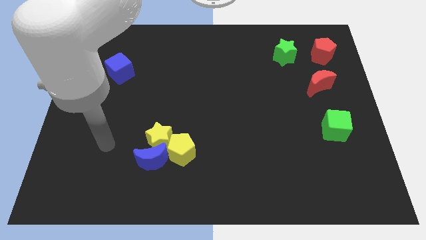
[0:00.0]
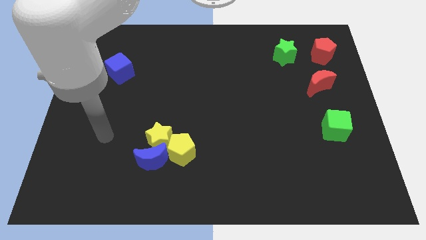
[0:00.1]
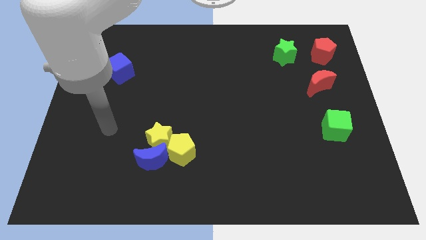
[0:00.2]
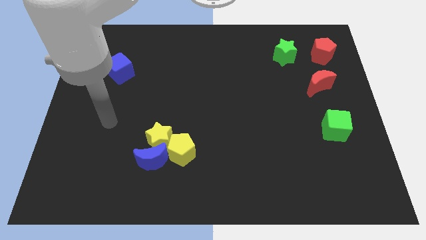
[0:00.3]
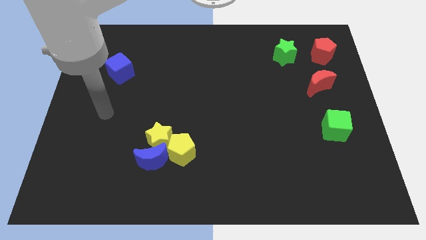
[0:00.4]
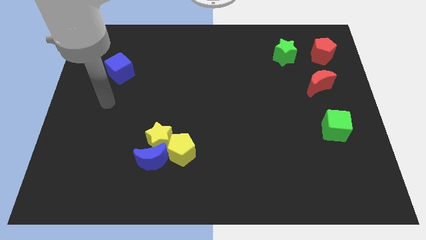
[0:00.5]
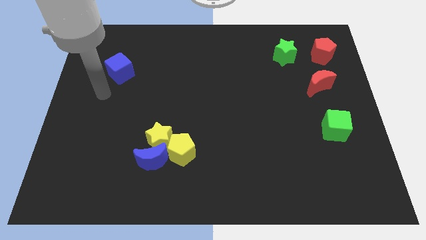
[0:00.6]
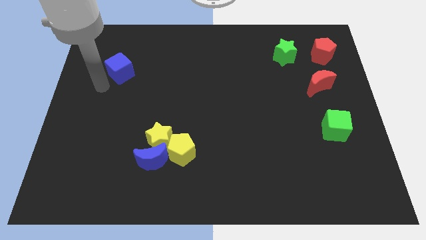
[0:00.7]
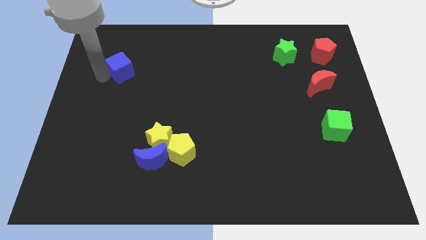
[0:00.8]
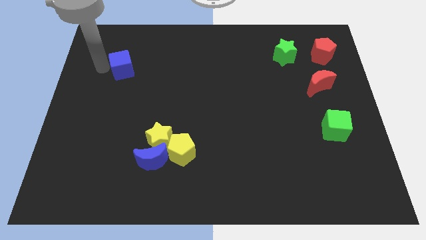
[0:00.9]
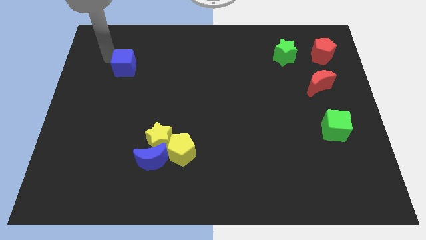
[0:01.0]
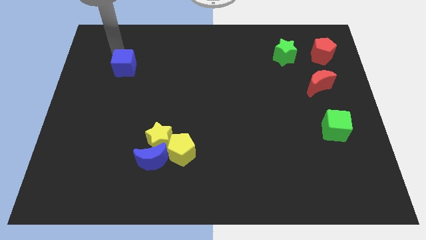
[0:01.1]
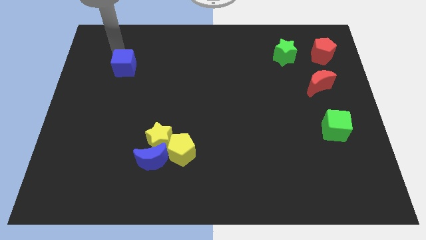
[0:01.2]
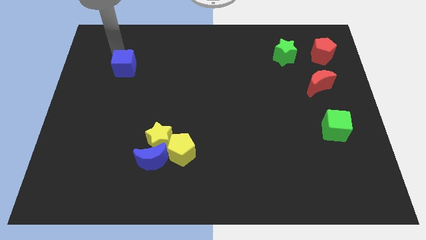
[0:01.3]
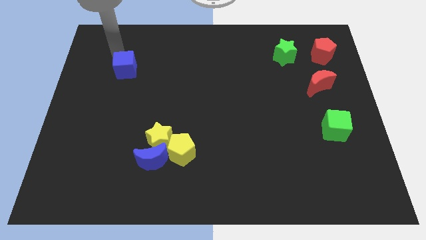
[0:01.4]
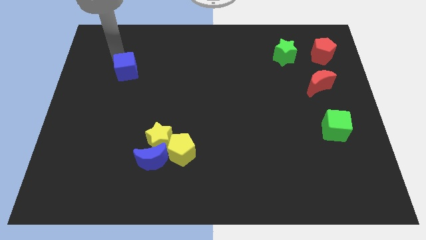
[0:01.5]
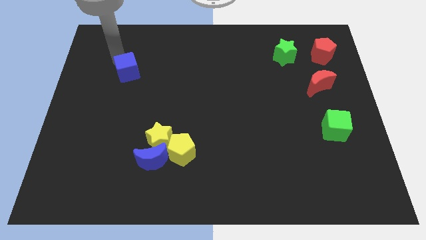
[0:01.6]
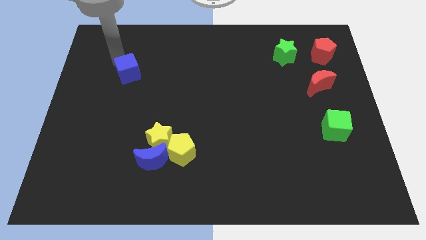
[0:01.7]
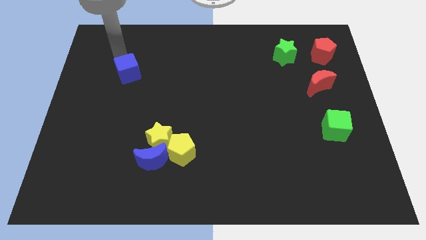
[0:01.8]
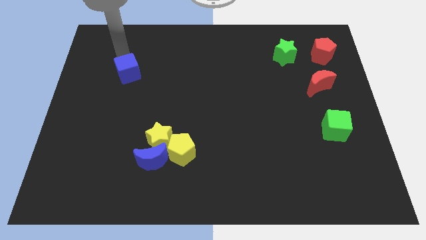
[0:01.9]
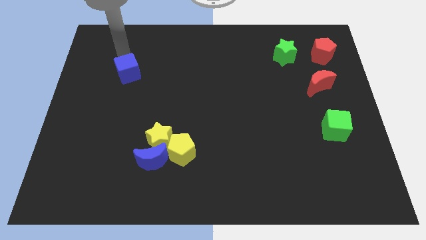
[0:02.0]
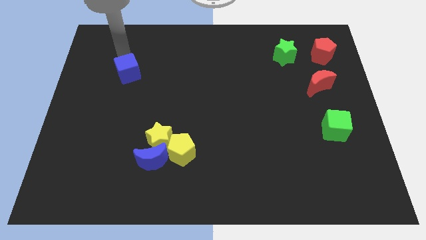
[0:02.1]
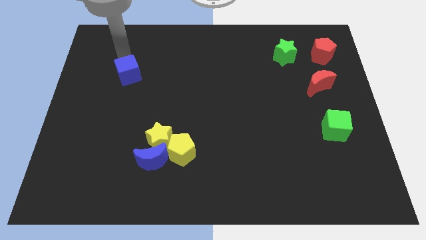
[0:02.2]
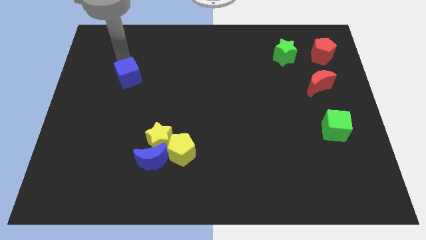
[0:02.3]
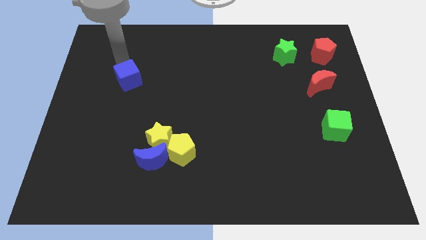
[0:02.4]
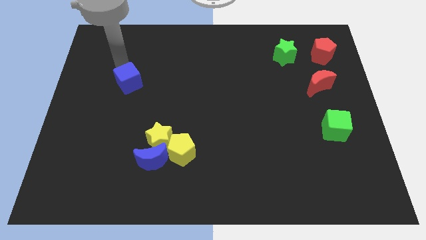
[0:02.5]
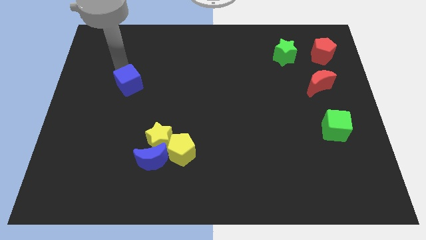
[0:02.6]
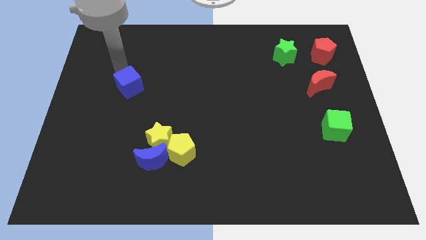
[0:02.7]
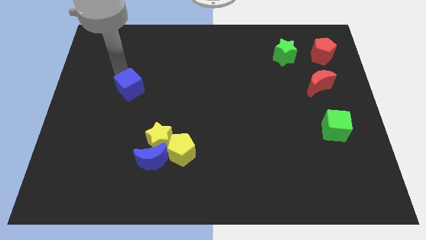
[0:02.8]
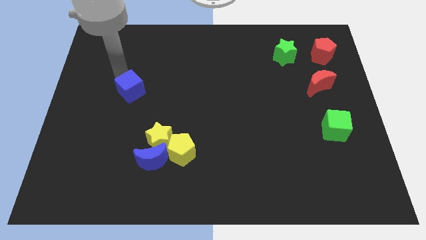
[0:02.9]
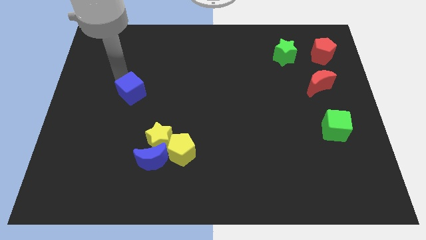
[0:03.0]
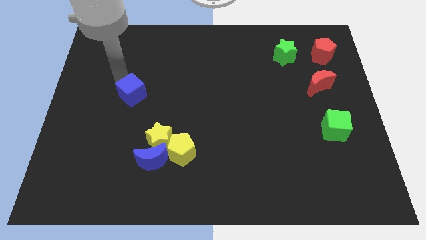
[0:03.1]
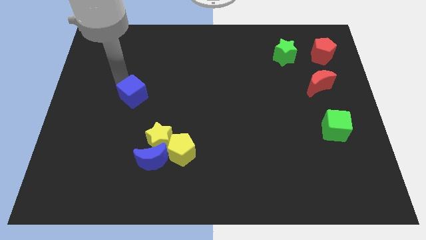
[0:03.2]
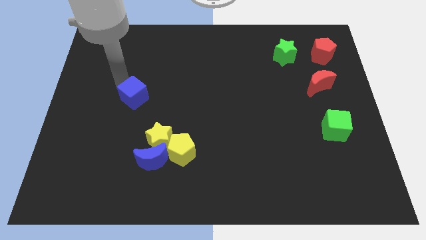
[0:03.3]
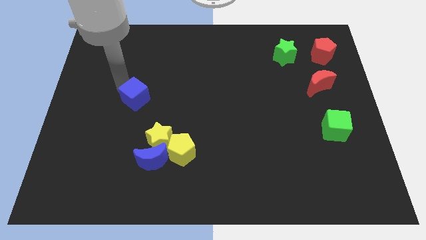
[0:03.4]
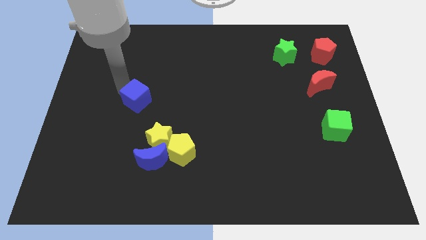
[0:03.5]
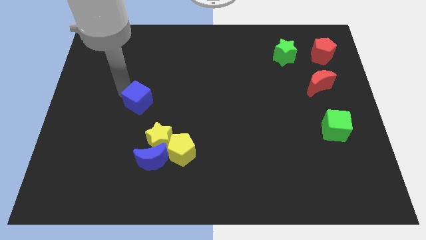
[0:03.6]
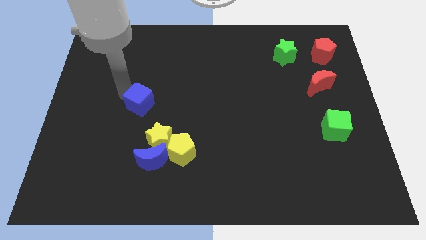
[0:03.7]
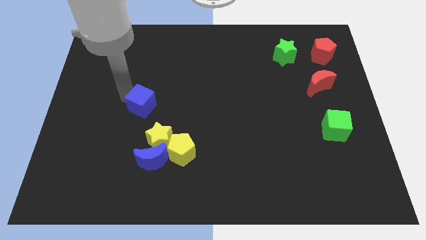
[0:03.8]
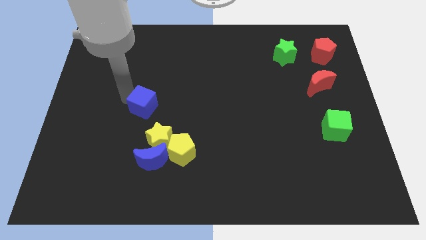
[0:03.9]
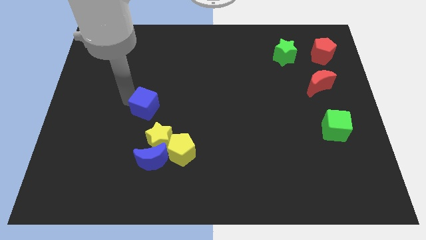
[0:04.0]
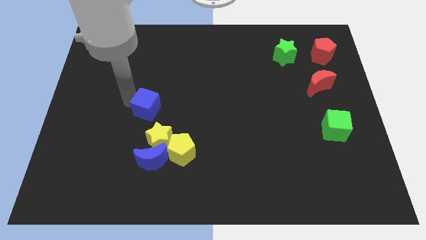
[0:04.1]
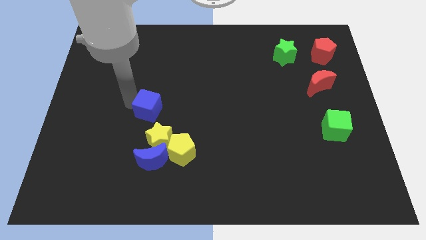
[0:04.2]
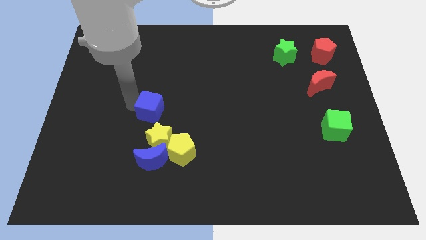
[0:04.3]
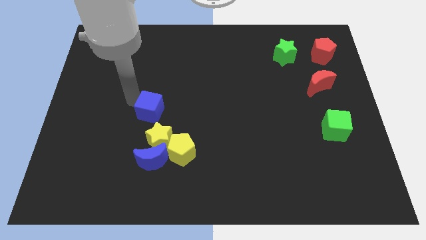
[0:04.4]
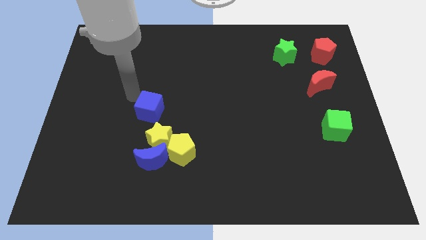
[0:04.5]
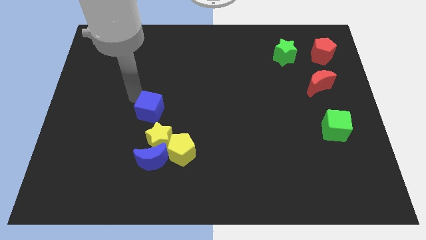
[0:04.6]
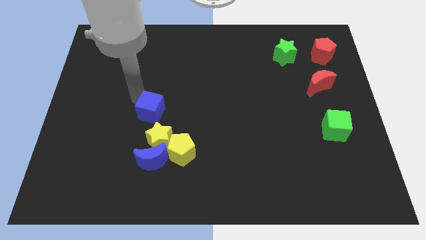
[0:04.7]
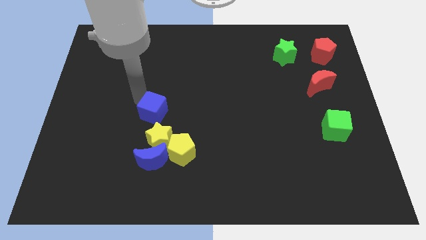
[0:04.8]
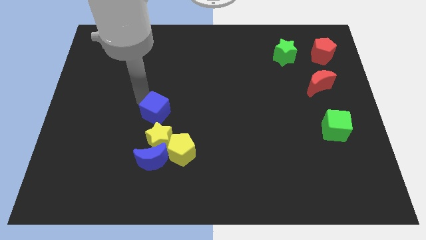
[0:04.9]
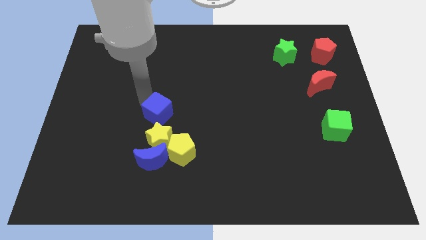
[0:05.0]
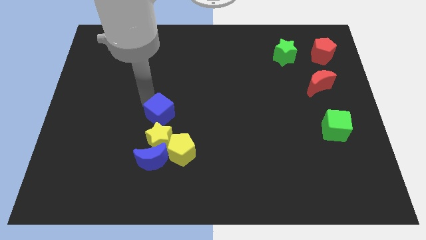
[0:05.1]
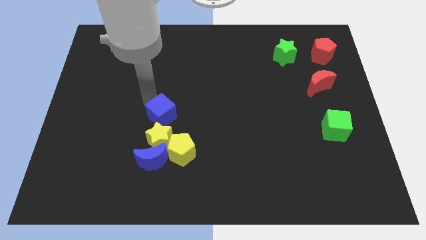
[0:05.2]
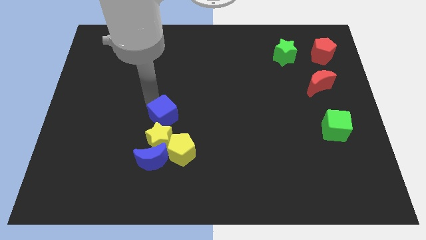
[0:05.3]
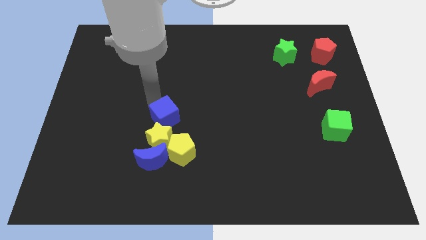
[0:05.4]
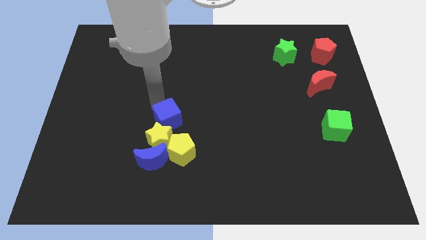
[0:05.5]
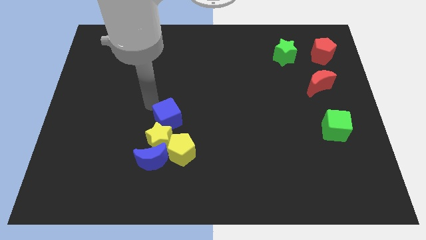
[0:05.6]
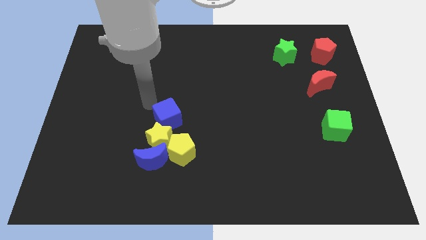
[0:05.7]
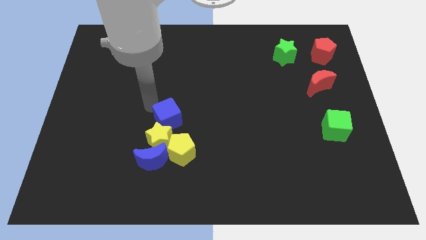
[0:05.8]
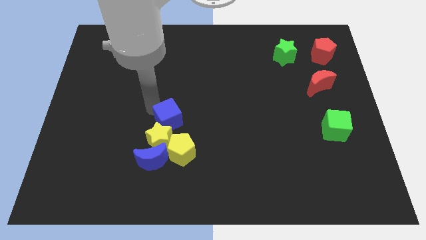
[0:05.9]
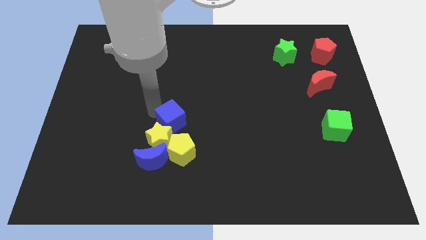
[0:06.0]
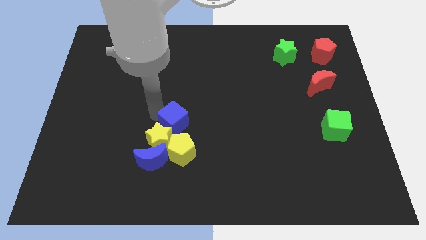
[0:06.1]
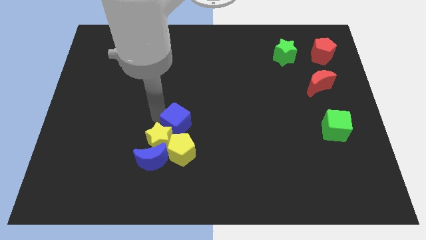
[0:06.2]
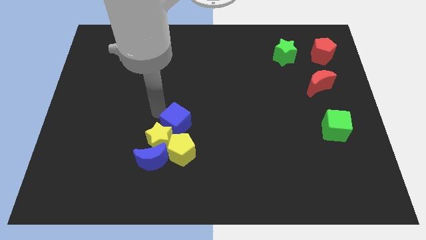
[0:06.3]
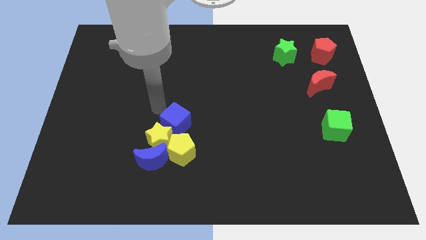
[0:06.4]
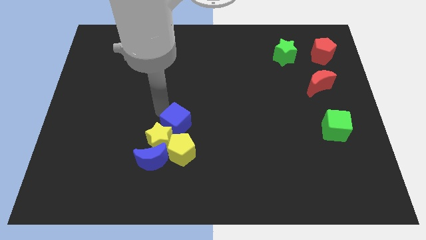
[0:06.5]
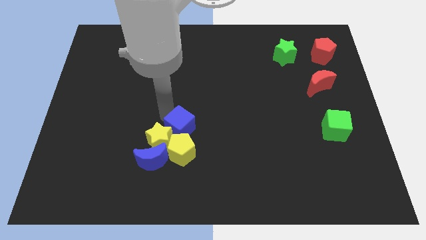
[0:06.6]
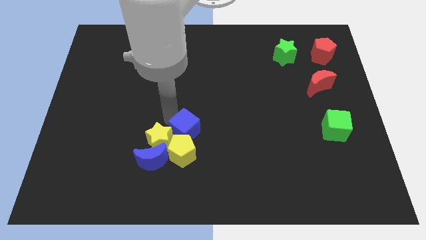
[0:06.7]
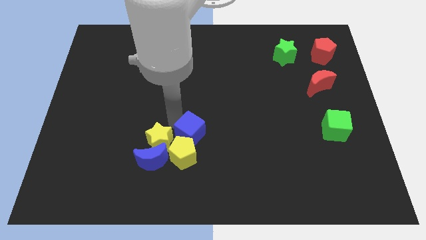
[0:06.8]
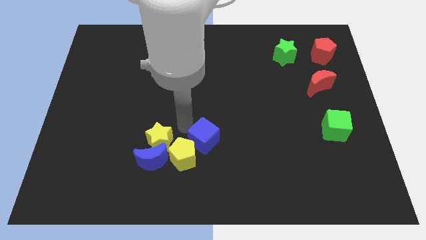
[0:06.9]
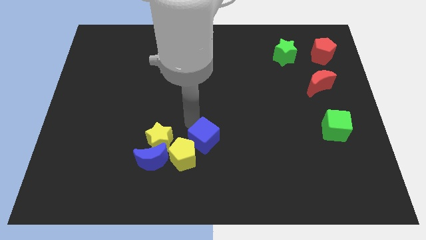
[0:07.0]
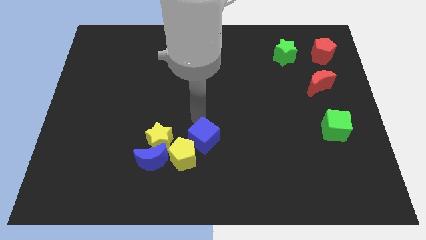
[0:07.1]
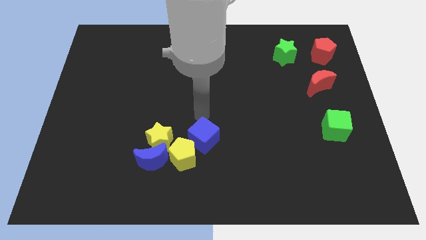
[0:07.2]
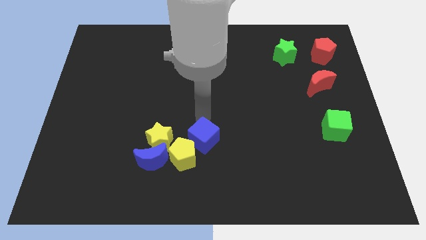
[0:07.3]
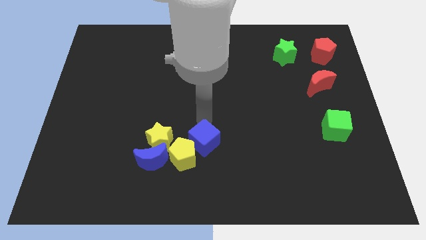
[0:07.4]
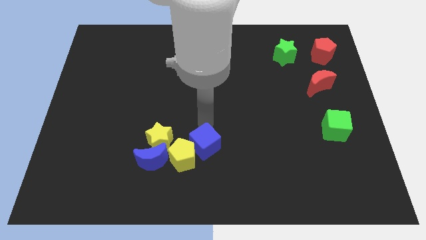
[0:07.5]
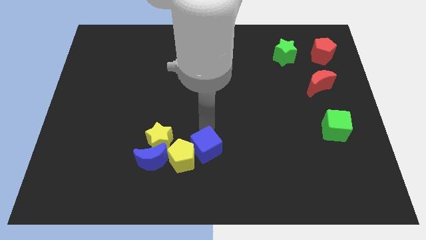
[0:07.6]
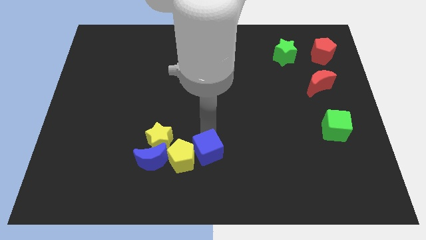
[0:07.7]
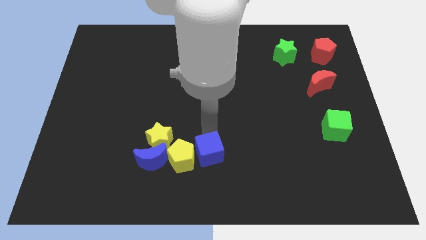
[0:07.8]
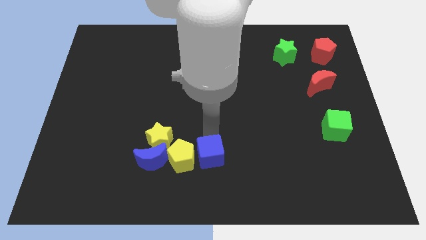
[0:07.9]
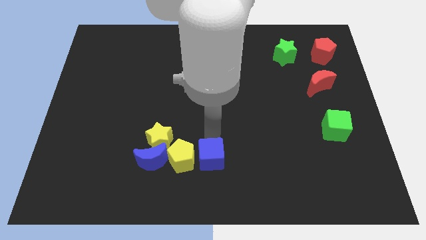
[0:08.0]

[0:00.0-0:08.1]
put the blue cube diagonally down and to the right of the yellow pentagon
